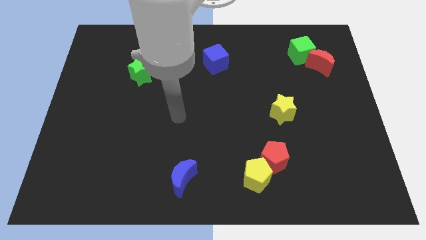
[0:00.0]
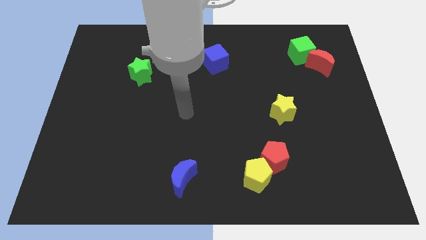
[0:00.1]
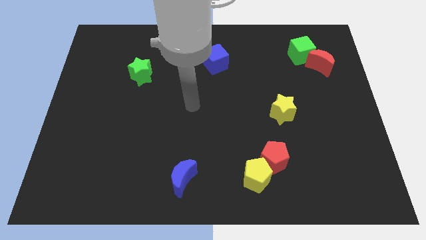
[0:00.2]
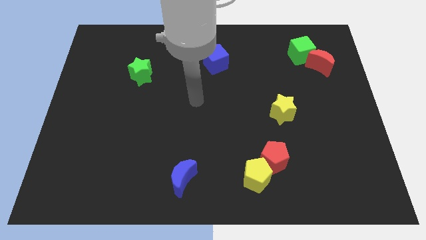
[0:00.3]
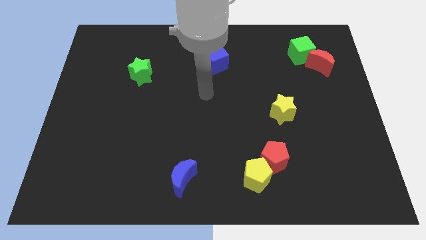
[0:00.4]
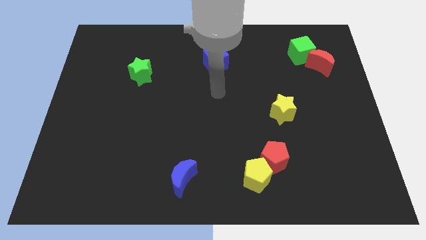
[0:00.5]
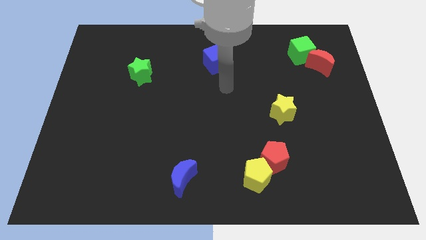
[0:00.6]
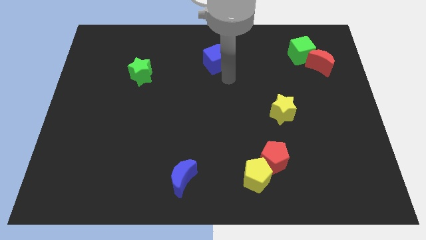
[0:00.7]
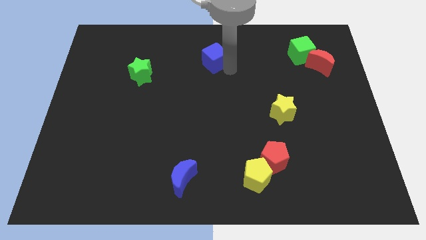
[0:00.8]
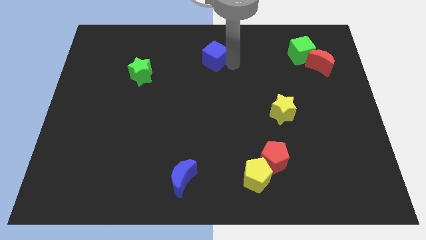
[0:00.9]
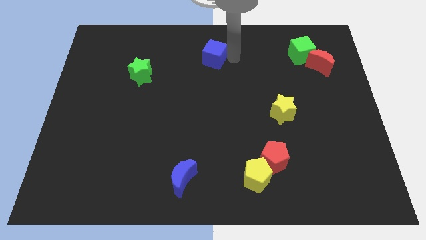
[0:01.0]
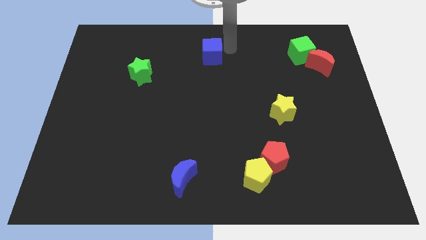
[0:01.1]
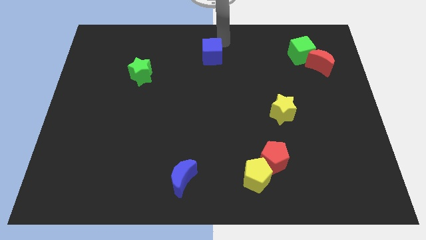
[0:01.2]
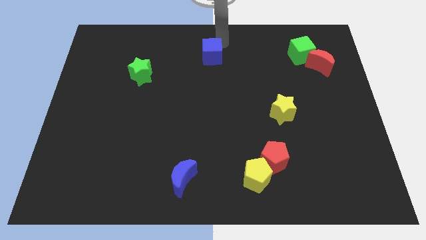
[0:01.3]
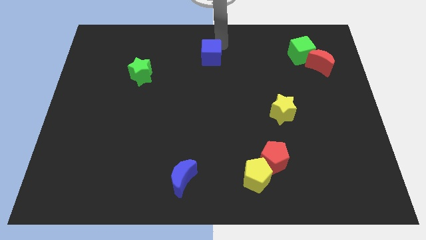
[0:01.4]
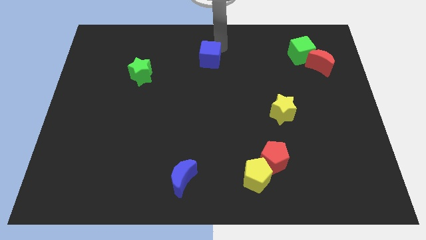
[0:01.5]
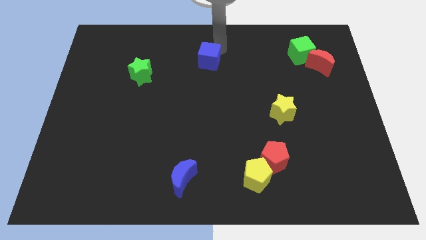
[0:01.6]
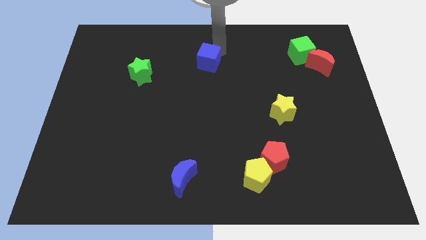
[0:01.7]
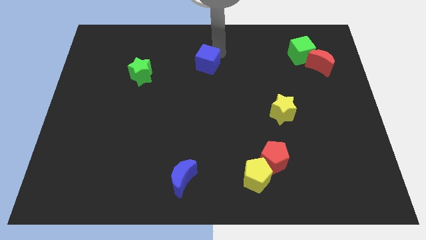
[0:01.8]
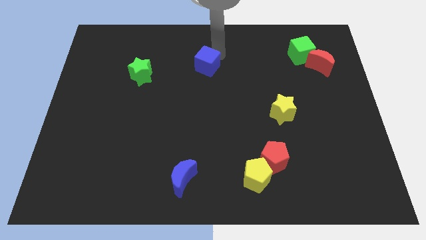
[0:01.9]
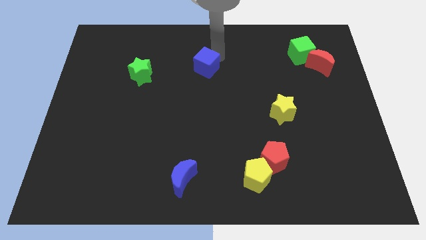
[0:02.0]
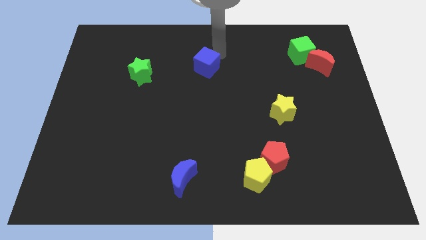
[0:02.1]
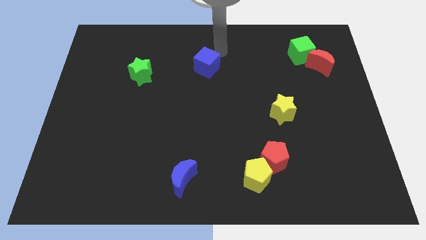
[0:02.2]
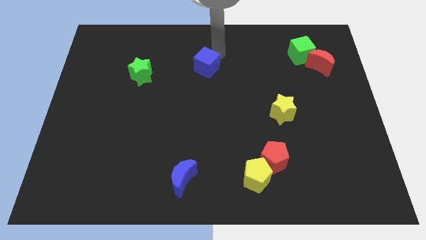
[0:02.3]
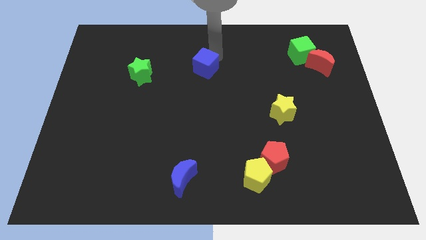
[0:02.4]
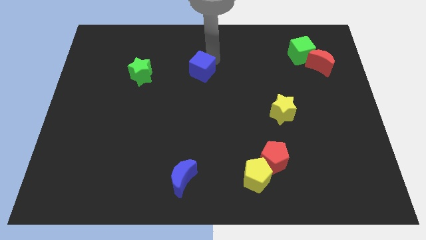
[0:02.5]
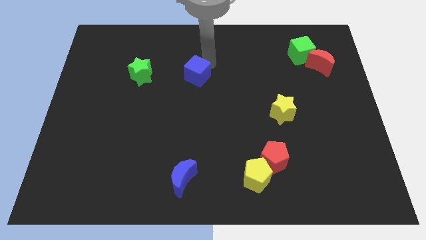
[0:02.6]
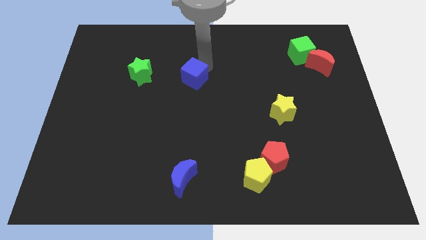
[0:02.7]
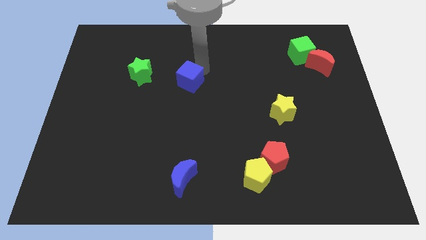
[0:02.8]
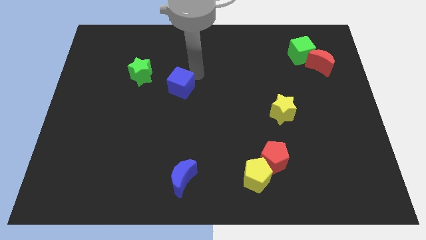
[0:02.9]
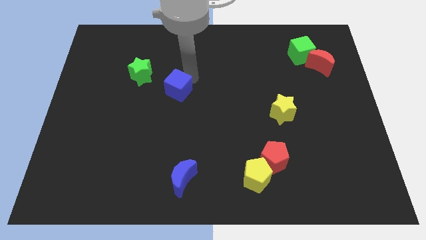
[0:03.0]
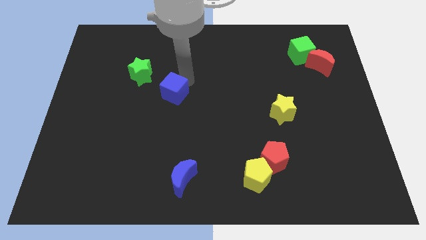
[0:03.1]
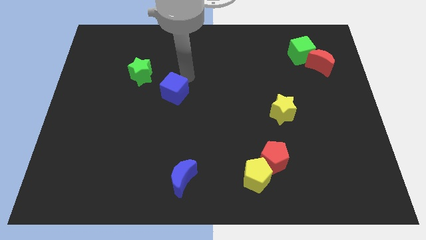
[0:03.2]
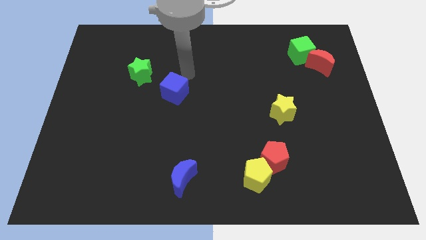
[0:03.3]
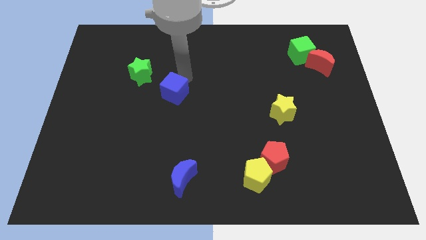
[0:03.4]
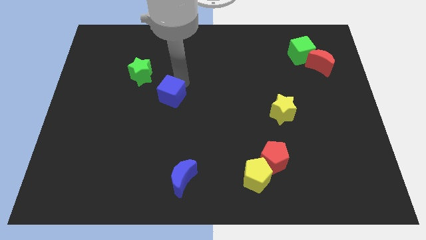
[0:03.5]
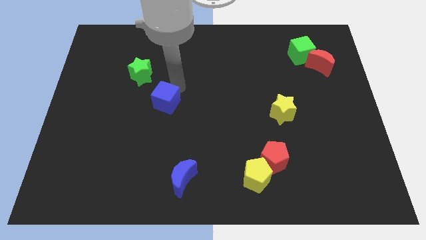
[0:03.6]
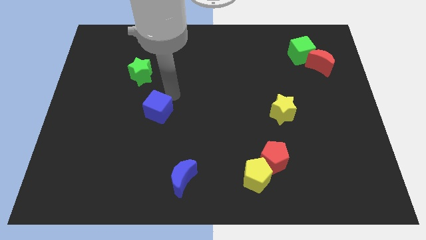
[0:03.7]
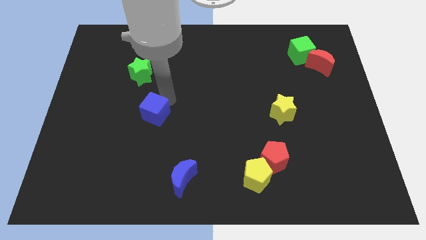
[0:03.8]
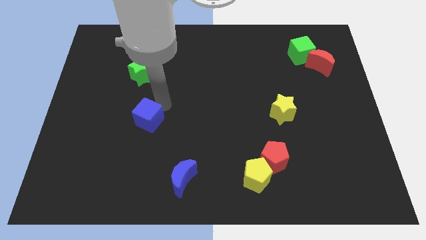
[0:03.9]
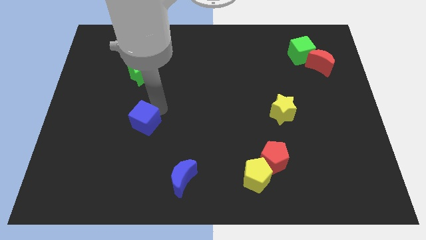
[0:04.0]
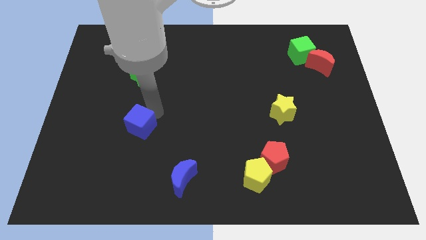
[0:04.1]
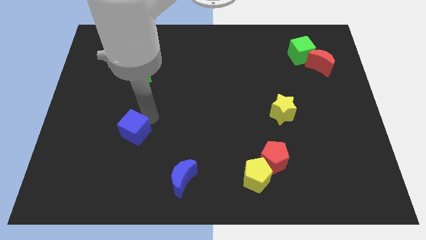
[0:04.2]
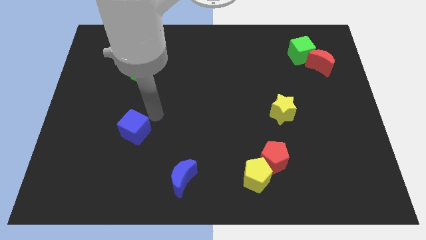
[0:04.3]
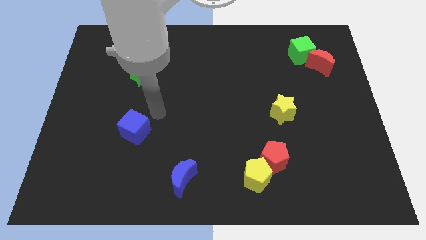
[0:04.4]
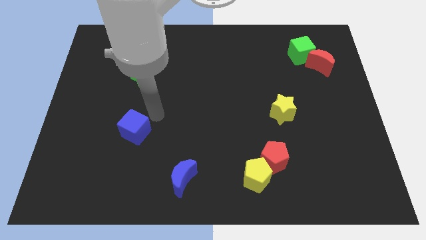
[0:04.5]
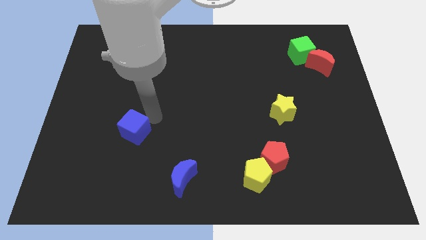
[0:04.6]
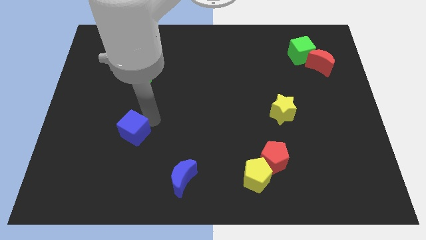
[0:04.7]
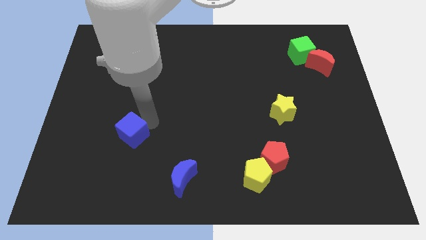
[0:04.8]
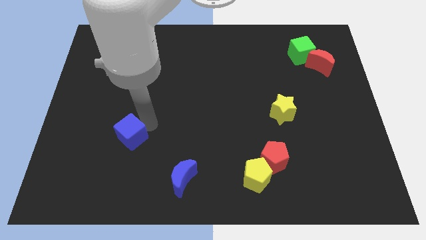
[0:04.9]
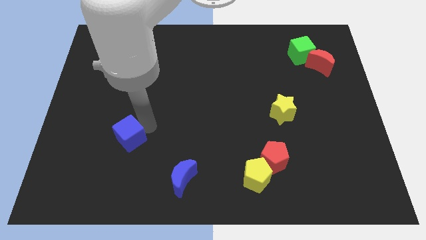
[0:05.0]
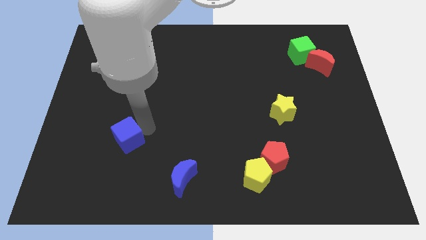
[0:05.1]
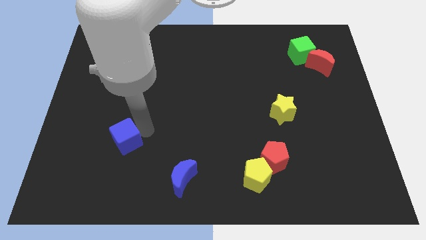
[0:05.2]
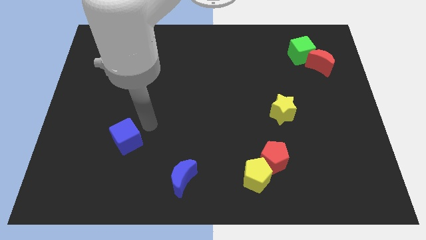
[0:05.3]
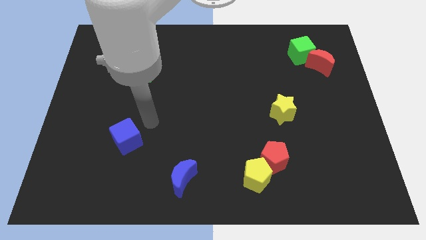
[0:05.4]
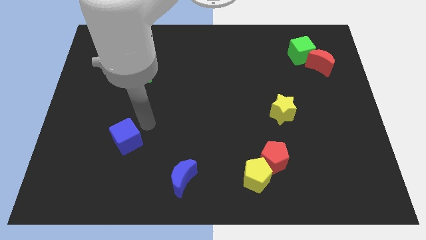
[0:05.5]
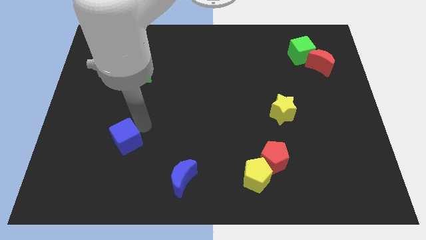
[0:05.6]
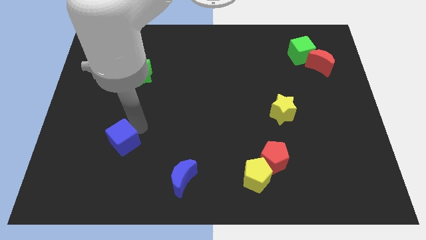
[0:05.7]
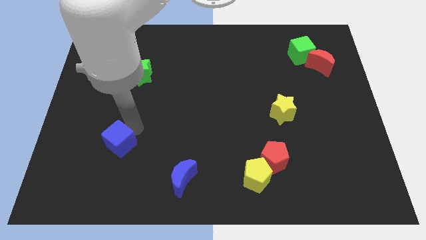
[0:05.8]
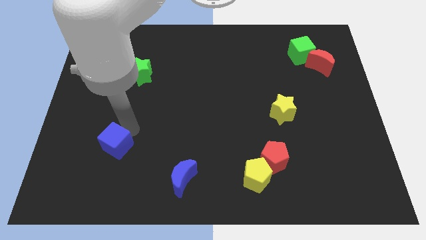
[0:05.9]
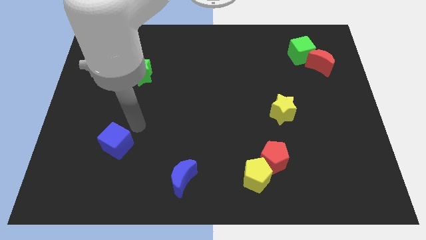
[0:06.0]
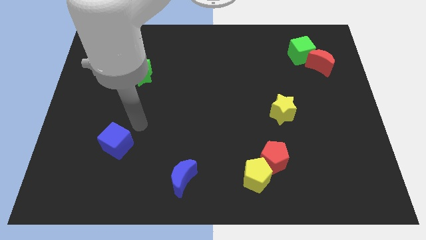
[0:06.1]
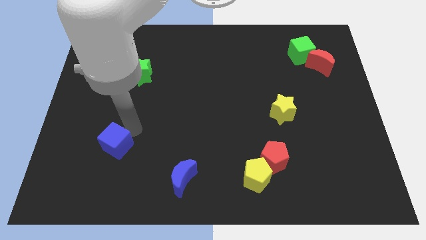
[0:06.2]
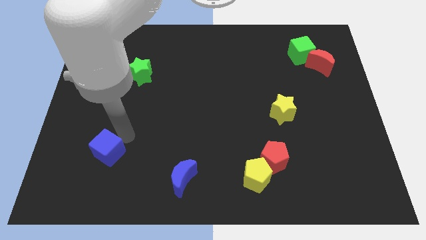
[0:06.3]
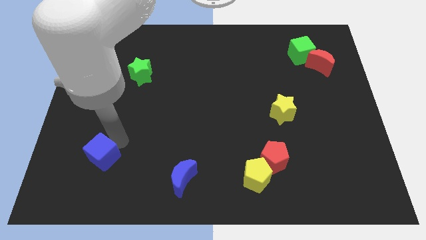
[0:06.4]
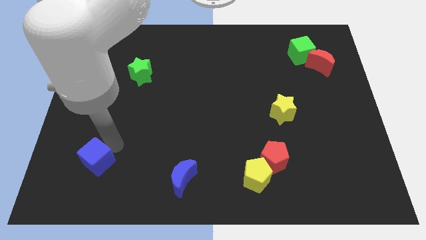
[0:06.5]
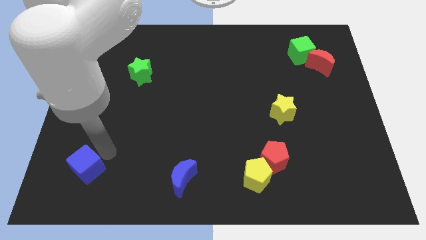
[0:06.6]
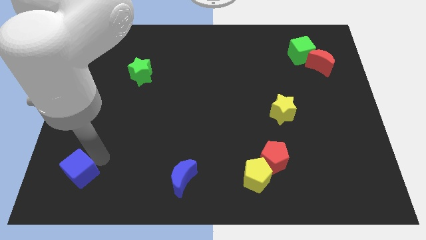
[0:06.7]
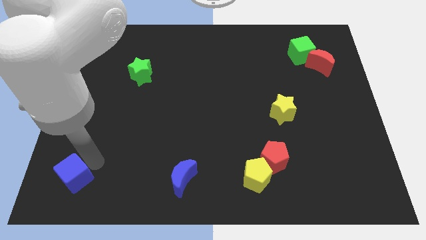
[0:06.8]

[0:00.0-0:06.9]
push the blue cube to the bottom left corner
